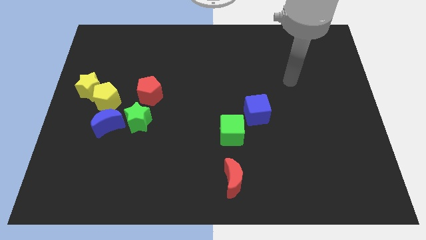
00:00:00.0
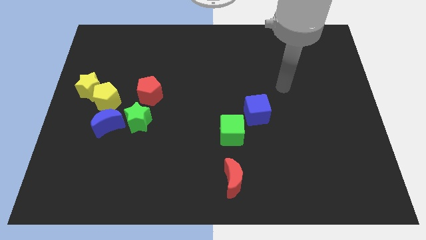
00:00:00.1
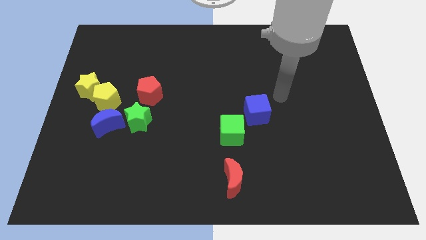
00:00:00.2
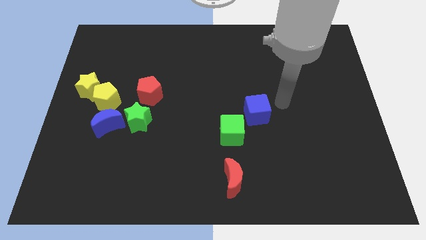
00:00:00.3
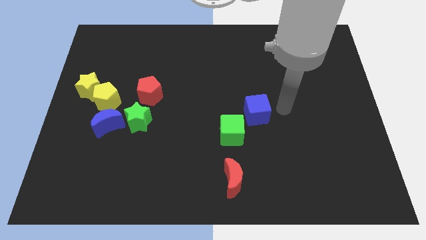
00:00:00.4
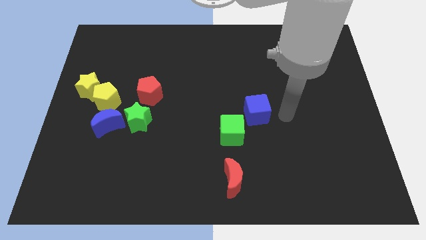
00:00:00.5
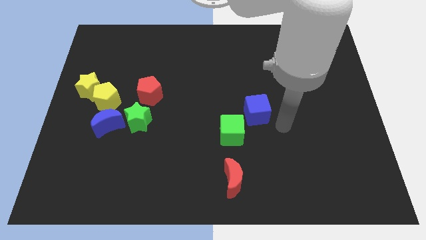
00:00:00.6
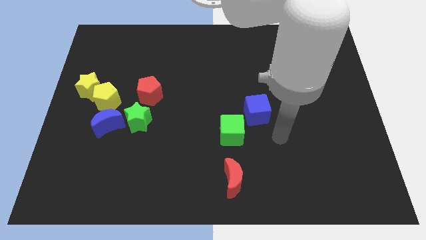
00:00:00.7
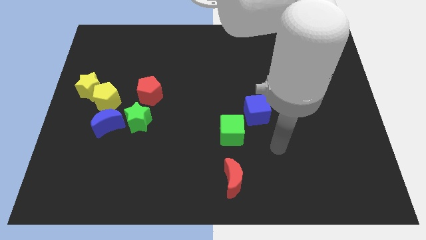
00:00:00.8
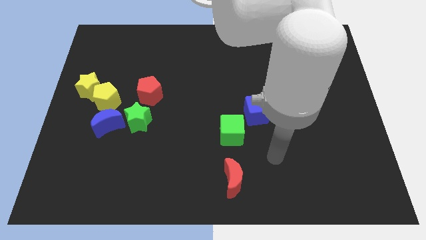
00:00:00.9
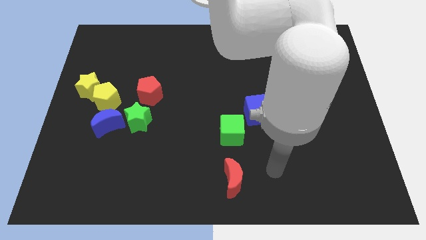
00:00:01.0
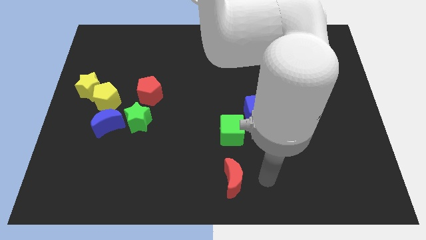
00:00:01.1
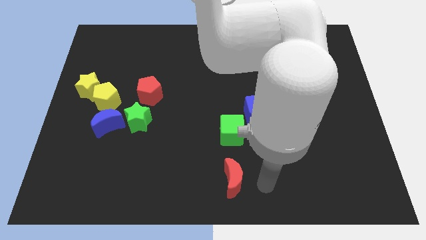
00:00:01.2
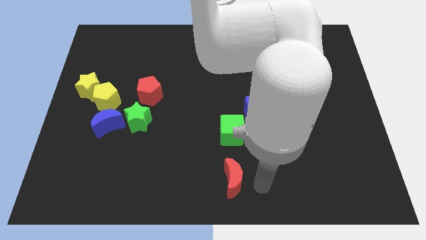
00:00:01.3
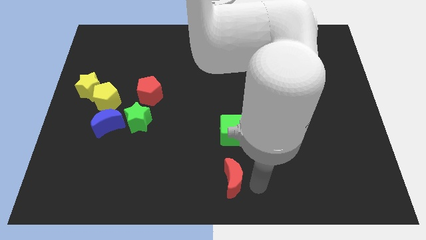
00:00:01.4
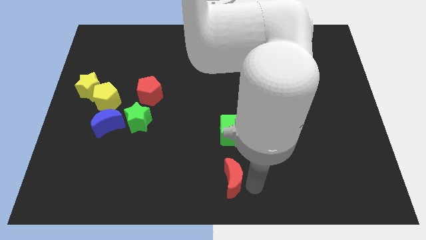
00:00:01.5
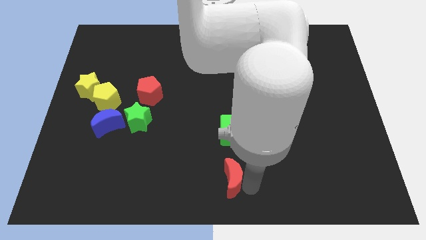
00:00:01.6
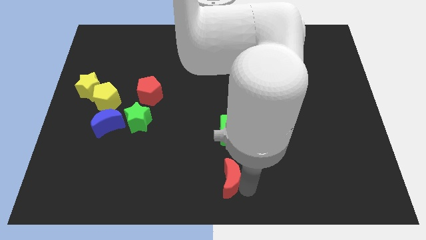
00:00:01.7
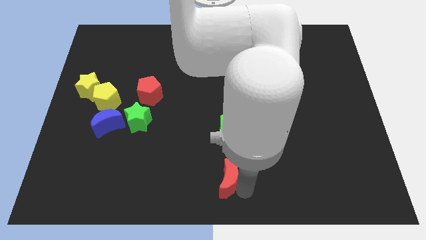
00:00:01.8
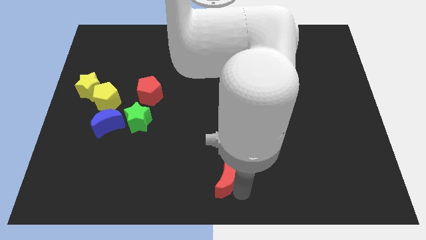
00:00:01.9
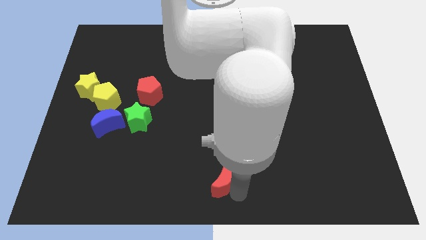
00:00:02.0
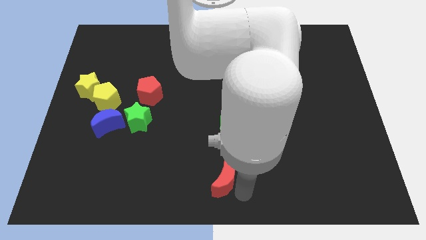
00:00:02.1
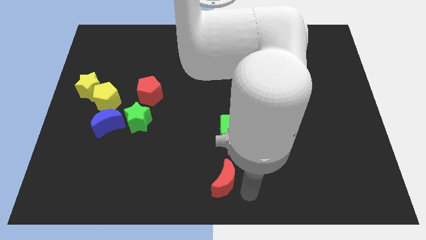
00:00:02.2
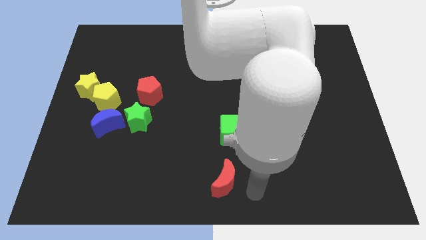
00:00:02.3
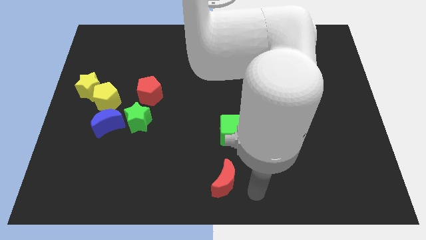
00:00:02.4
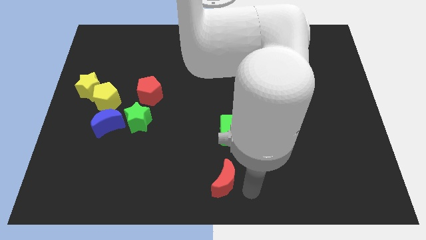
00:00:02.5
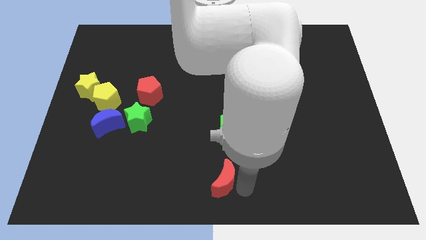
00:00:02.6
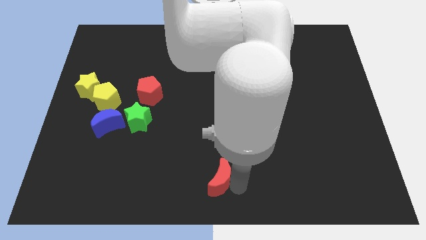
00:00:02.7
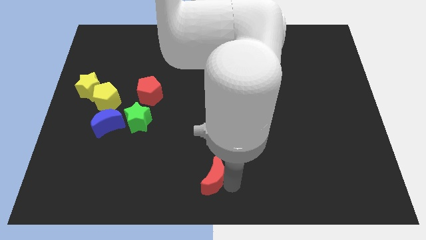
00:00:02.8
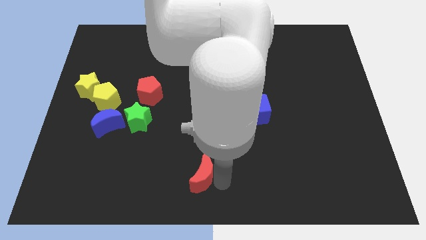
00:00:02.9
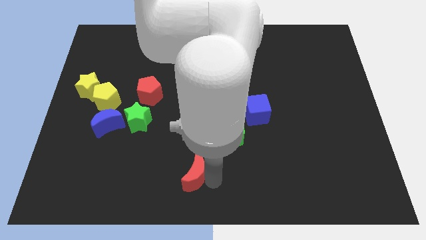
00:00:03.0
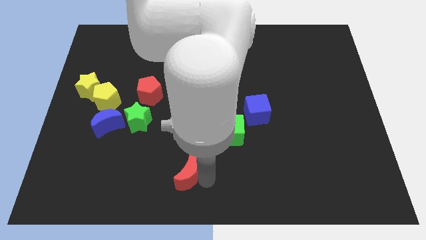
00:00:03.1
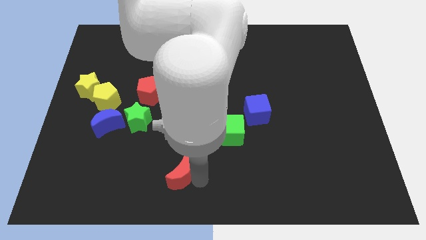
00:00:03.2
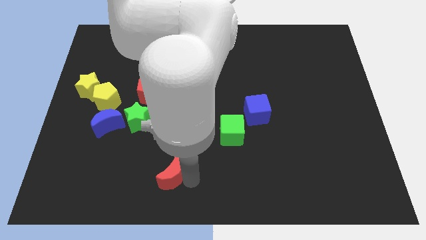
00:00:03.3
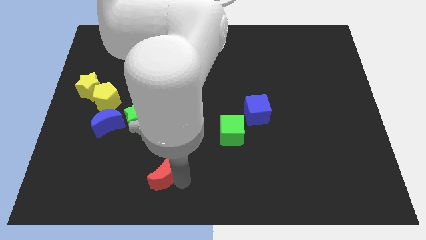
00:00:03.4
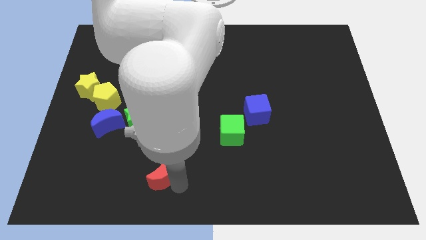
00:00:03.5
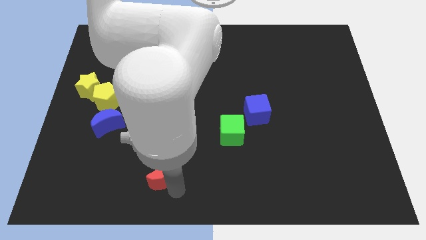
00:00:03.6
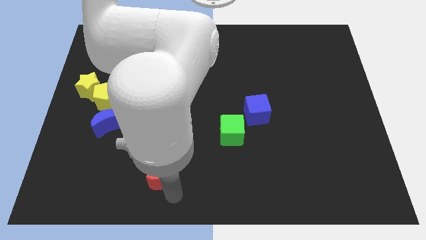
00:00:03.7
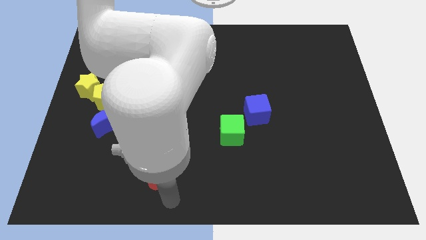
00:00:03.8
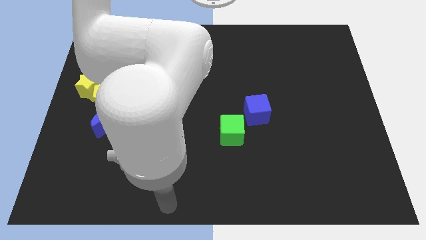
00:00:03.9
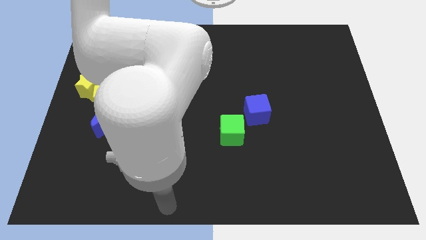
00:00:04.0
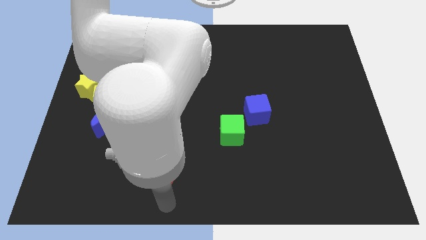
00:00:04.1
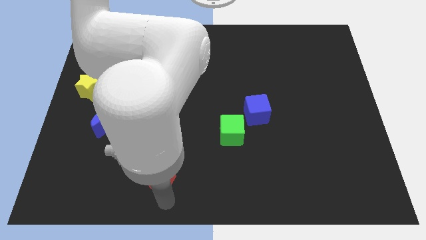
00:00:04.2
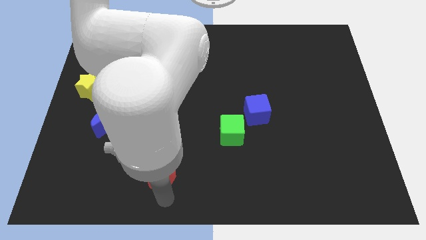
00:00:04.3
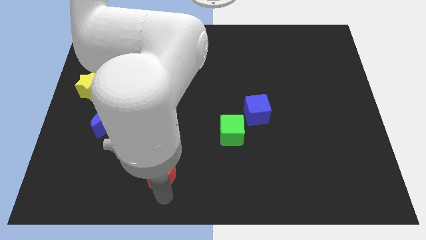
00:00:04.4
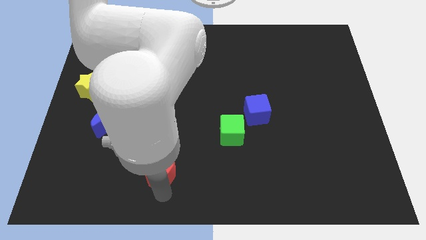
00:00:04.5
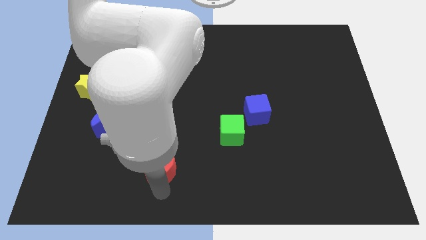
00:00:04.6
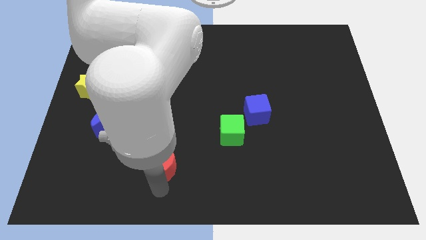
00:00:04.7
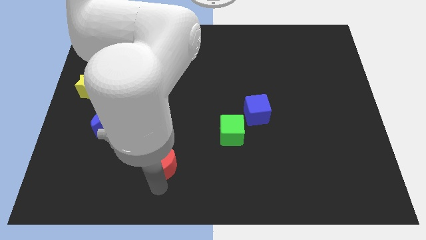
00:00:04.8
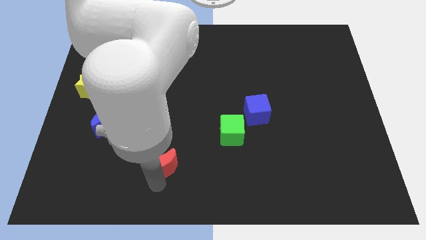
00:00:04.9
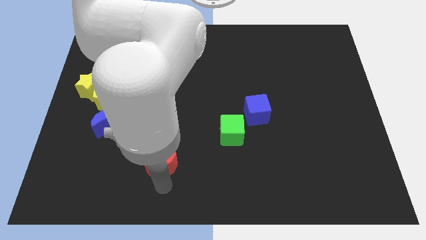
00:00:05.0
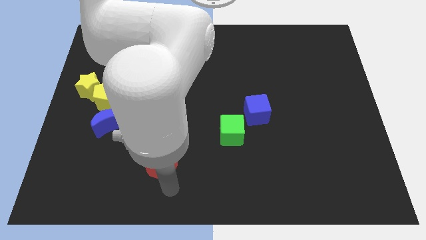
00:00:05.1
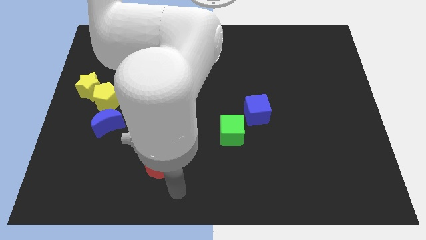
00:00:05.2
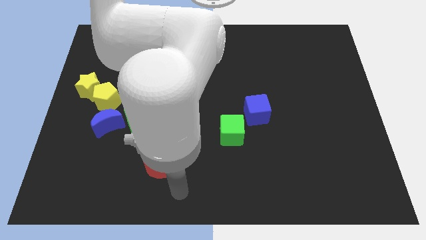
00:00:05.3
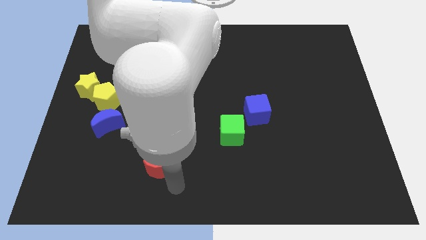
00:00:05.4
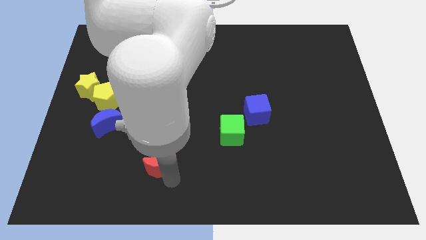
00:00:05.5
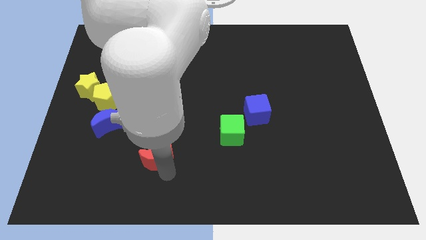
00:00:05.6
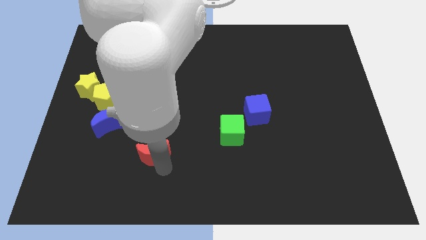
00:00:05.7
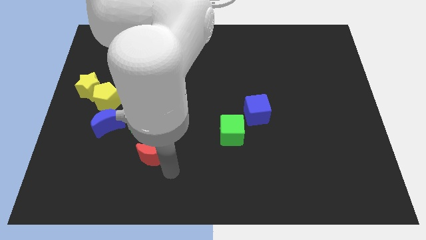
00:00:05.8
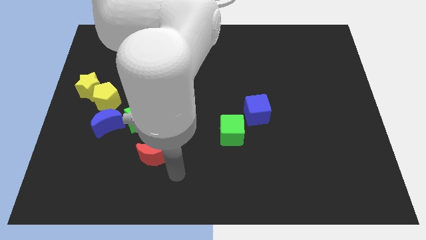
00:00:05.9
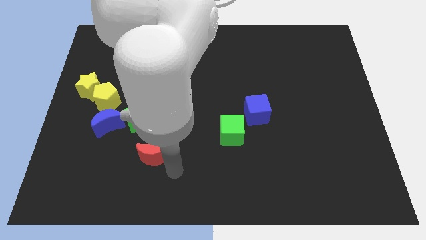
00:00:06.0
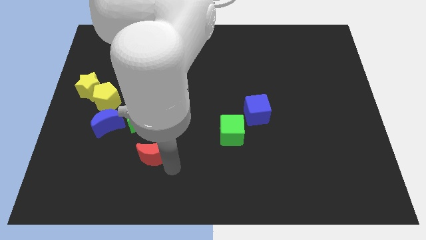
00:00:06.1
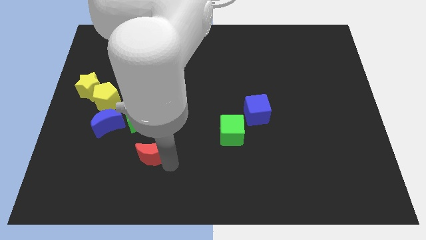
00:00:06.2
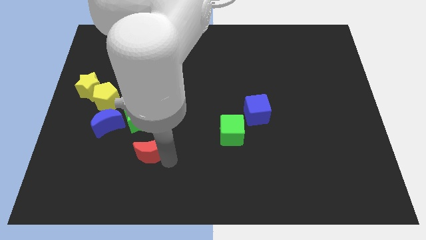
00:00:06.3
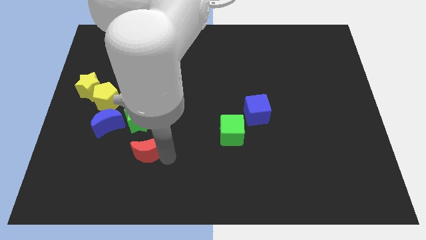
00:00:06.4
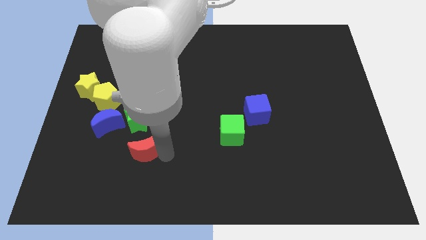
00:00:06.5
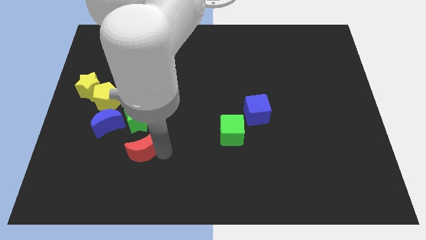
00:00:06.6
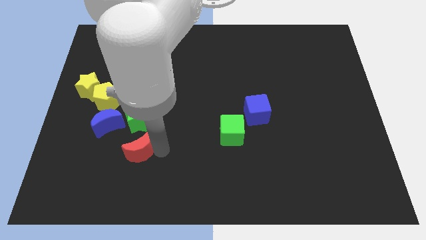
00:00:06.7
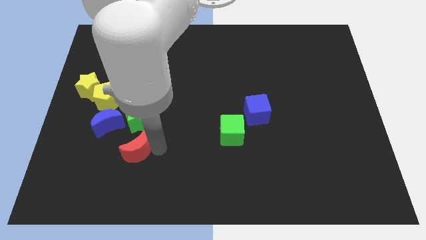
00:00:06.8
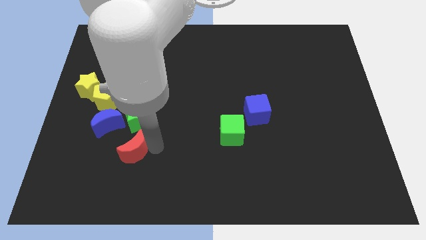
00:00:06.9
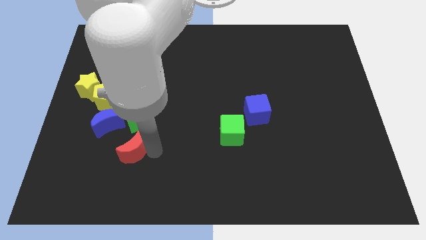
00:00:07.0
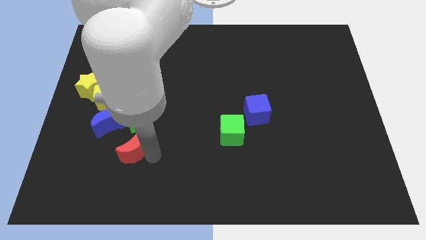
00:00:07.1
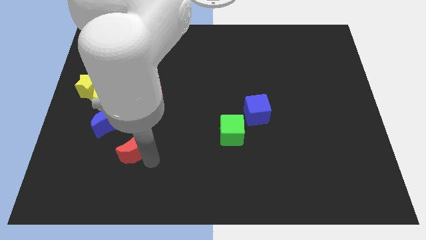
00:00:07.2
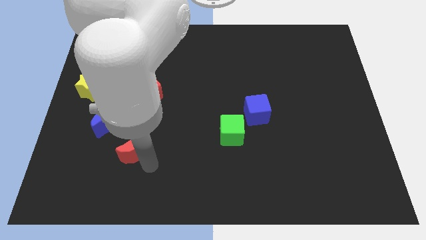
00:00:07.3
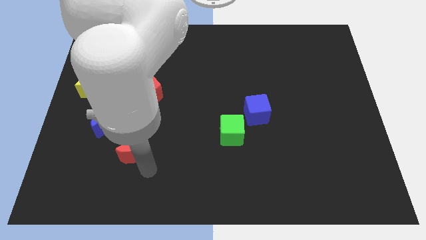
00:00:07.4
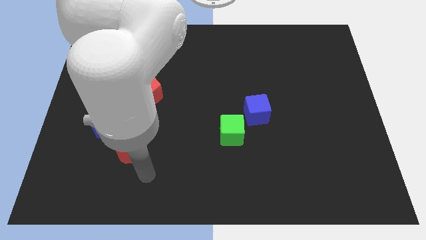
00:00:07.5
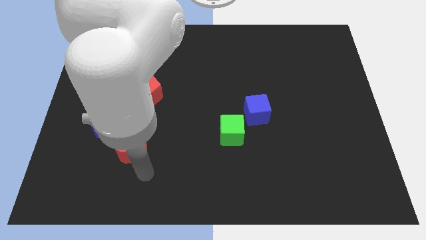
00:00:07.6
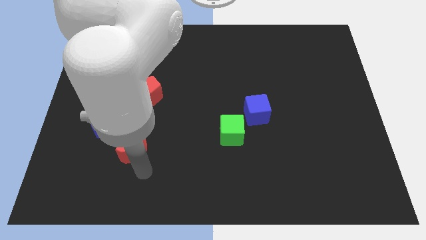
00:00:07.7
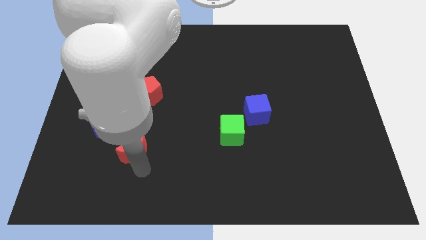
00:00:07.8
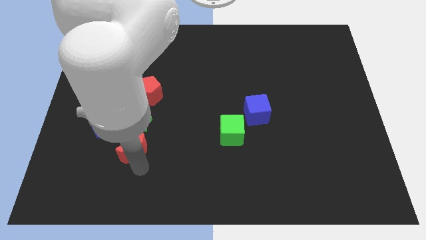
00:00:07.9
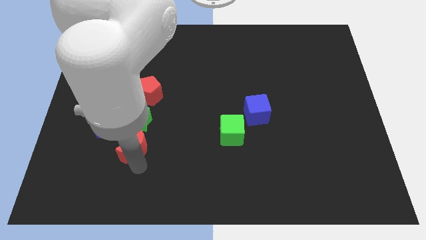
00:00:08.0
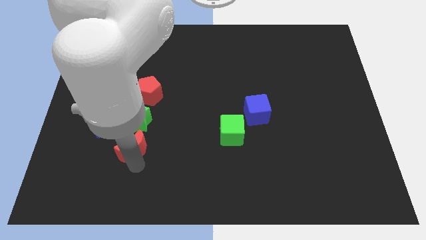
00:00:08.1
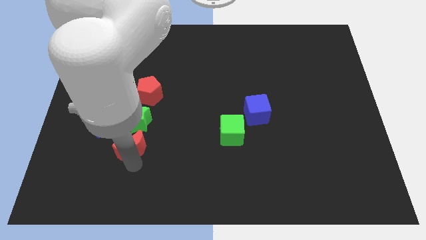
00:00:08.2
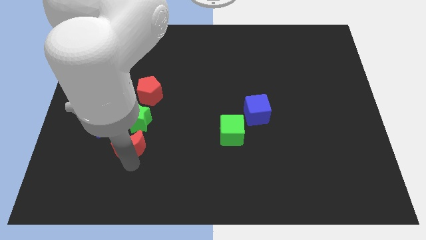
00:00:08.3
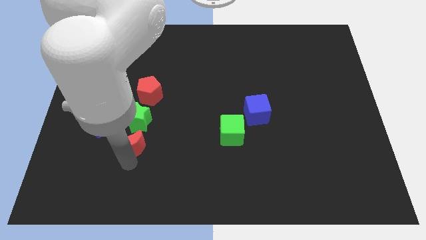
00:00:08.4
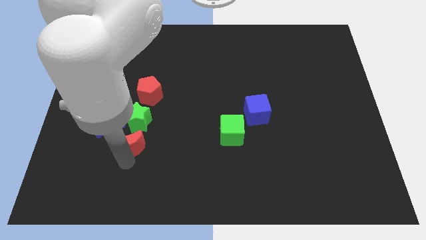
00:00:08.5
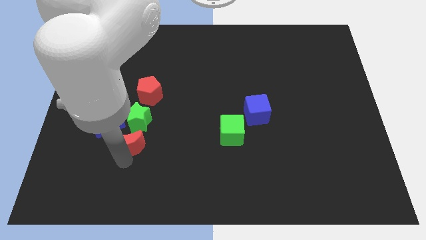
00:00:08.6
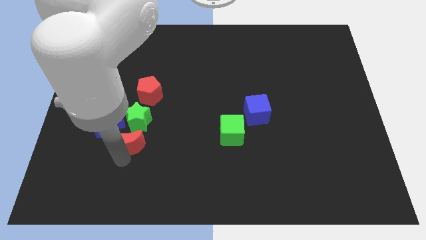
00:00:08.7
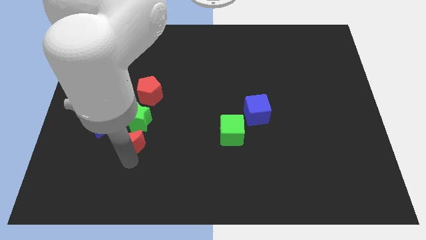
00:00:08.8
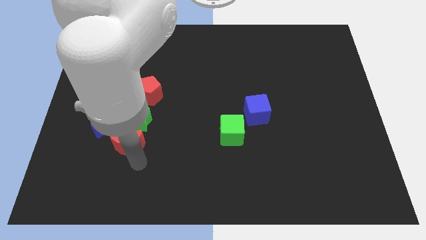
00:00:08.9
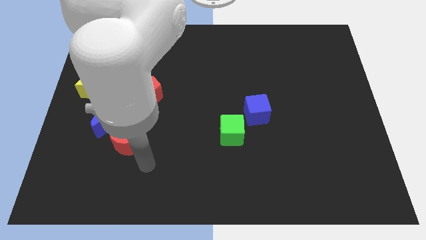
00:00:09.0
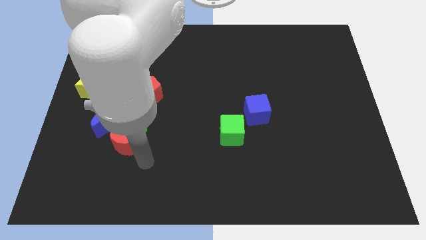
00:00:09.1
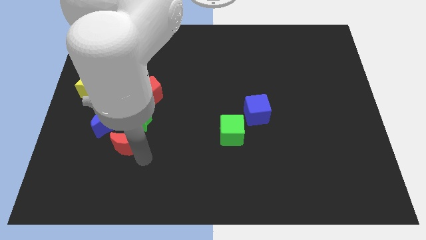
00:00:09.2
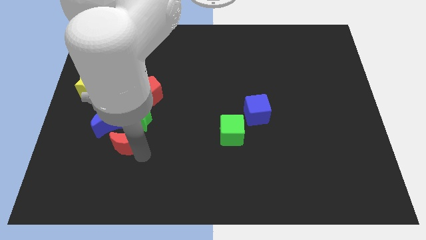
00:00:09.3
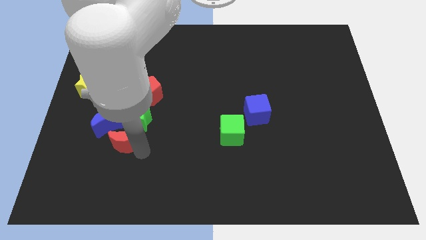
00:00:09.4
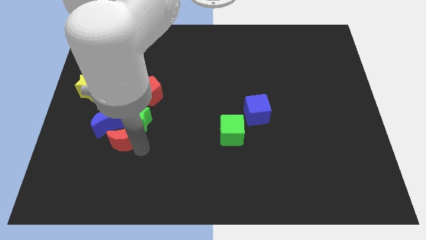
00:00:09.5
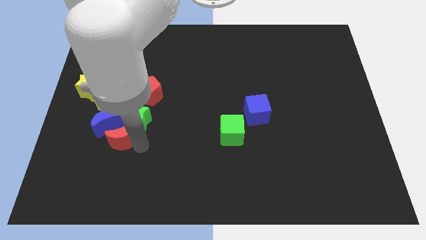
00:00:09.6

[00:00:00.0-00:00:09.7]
slide the red moon close to the blue moon
